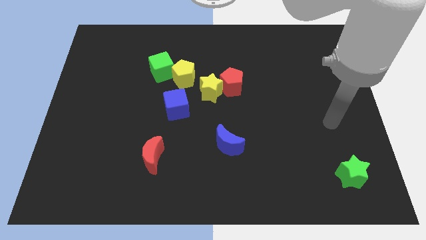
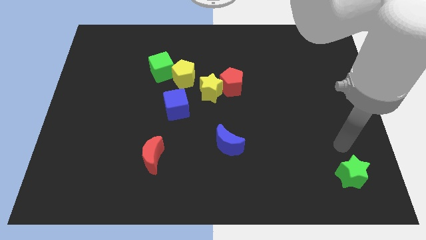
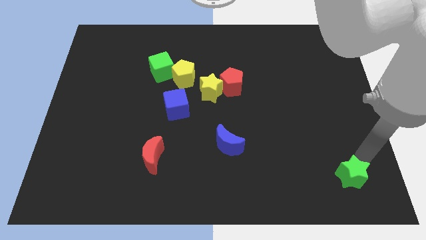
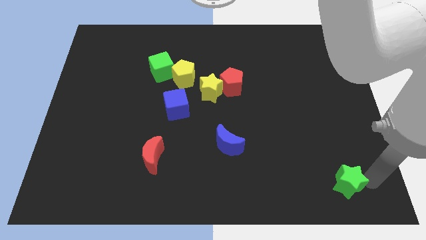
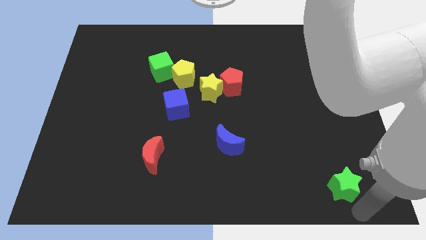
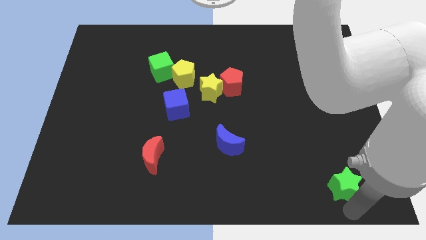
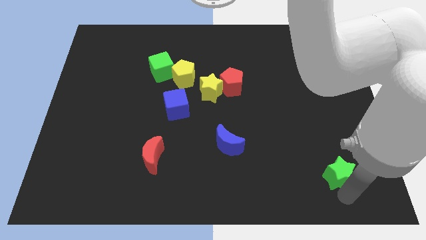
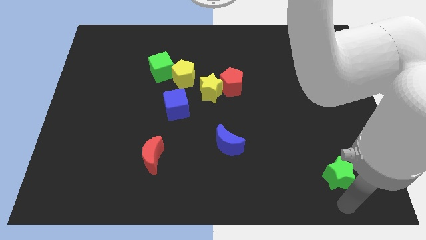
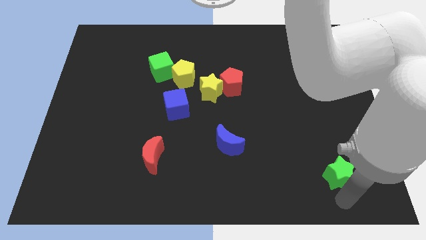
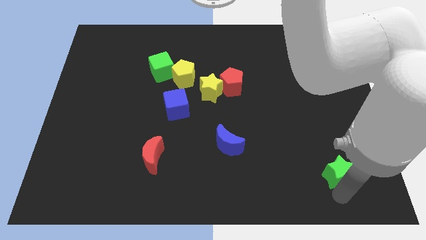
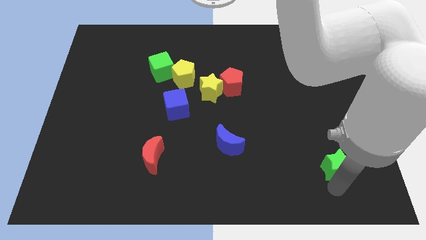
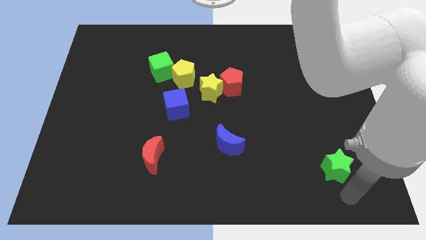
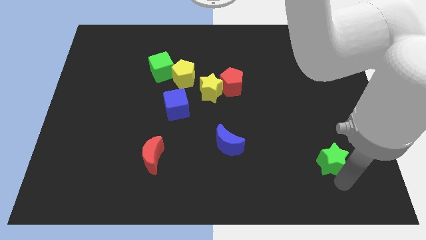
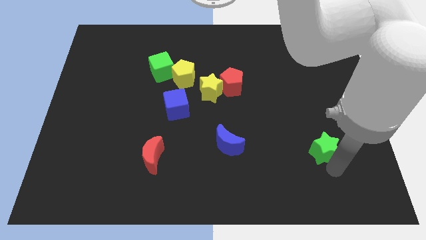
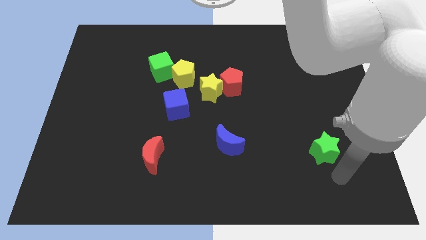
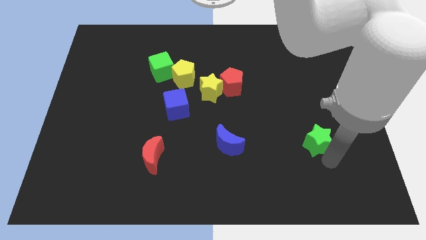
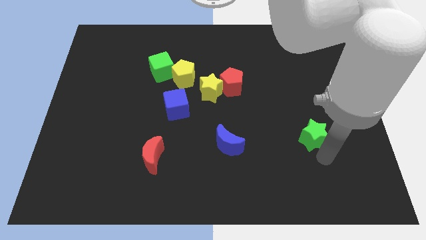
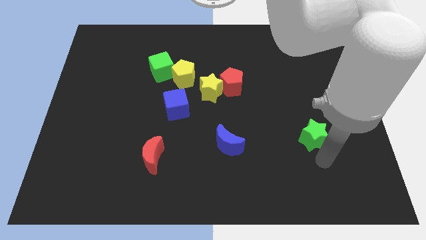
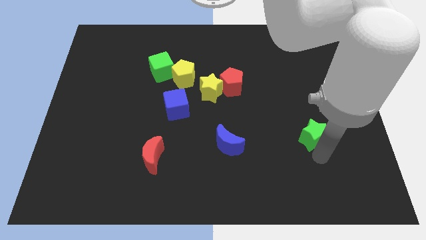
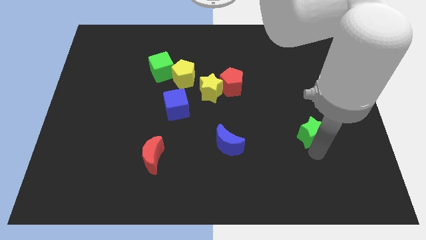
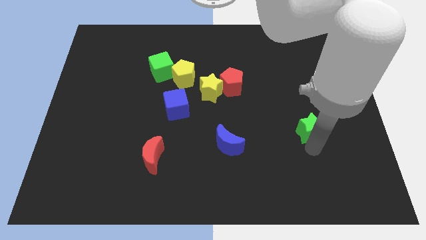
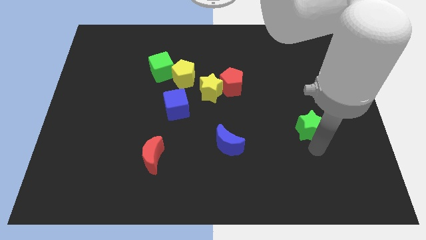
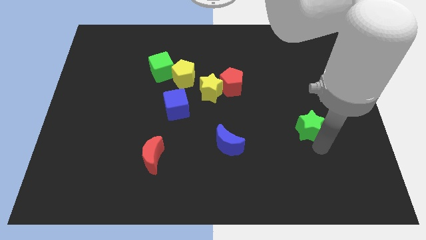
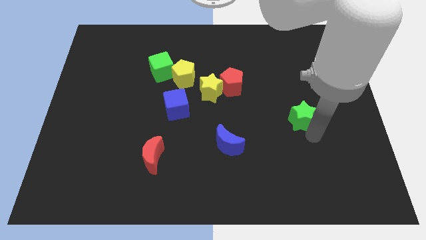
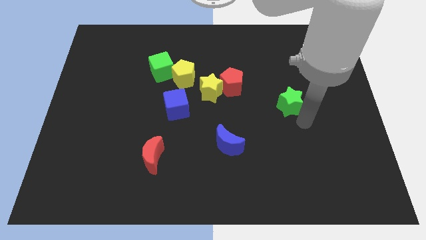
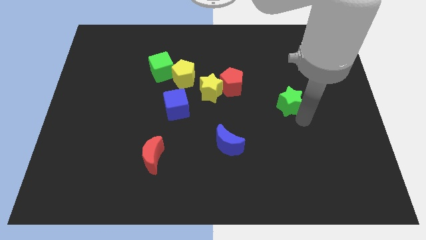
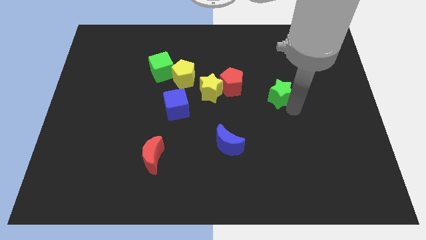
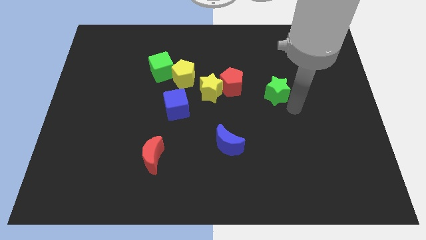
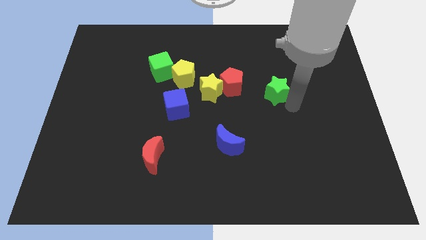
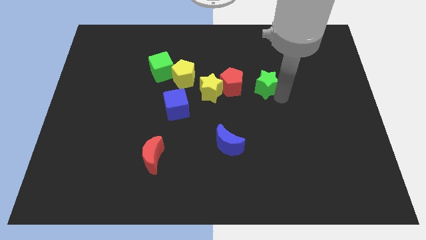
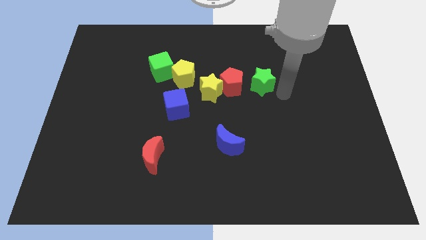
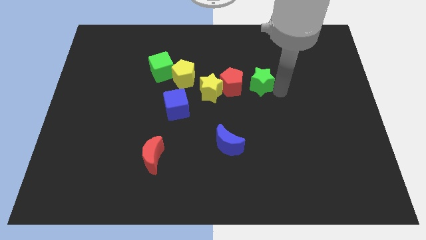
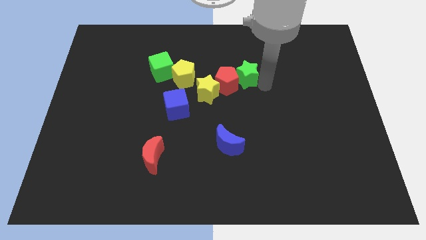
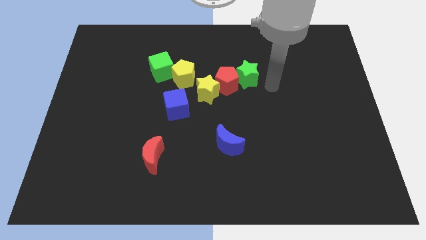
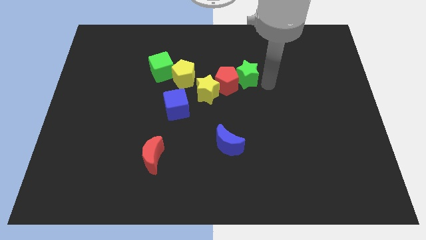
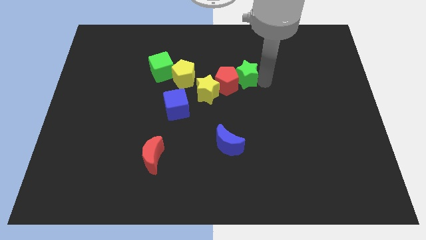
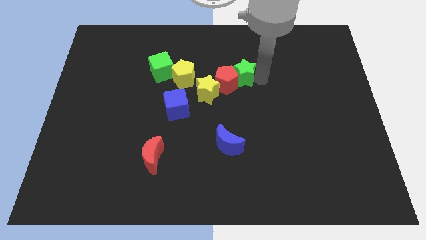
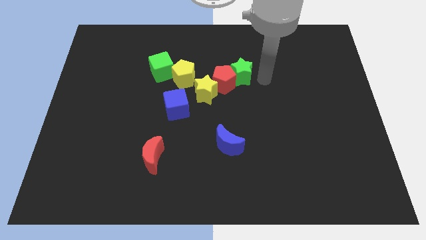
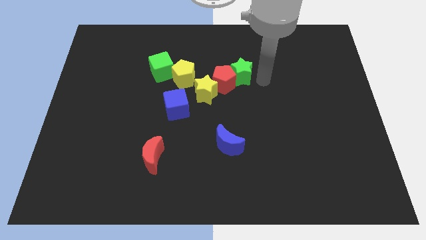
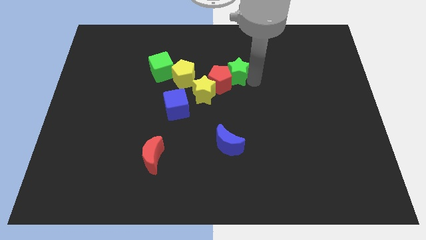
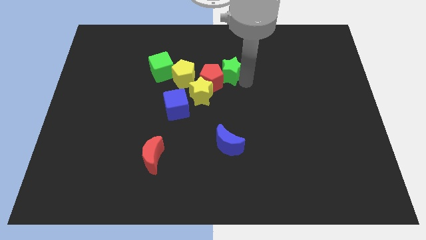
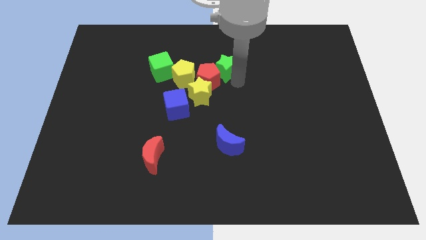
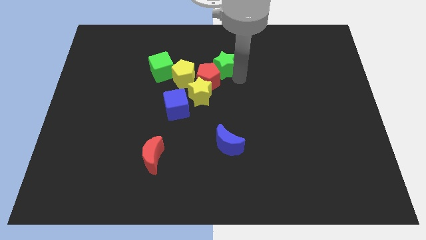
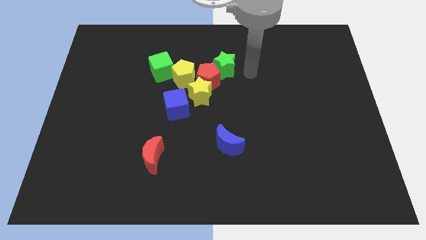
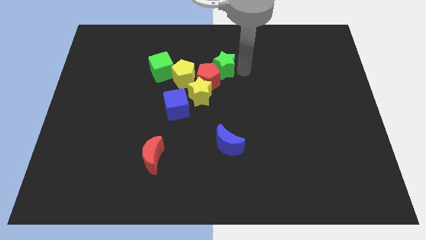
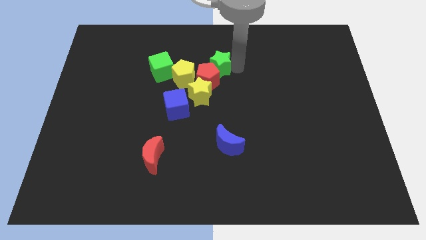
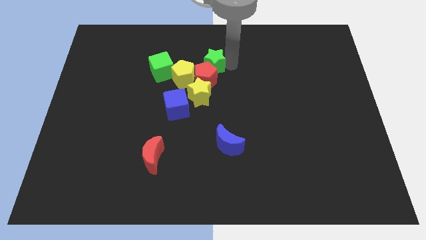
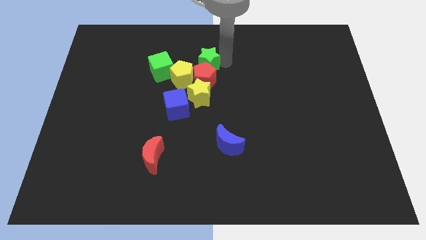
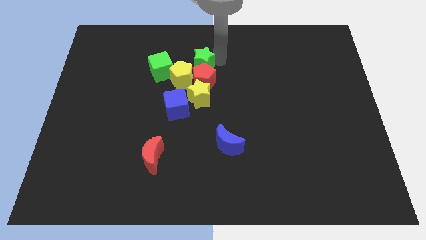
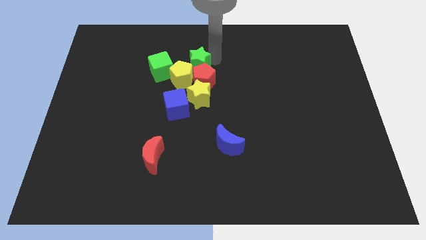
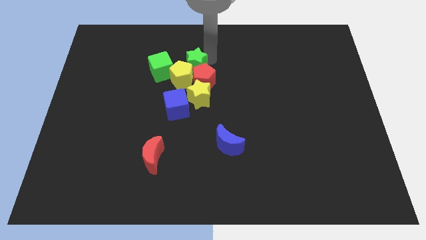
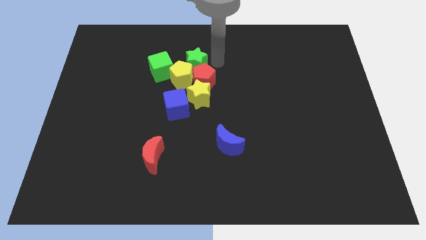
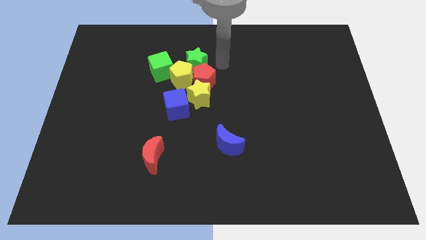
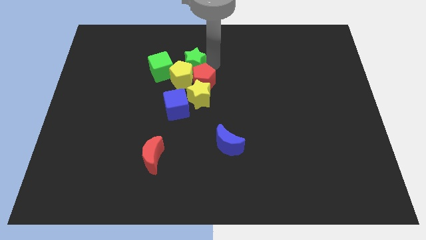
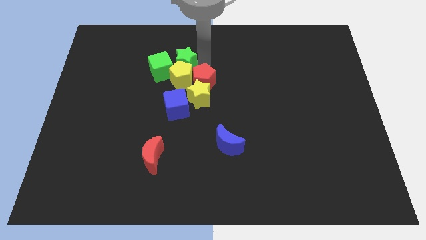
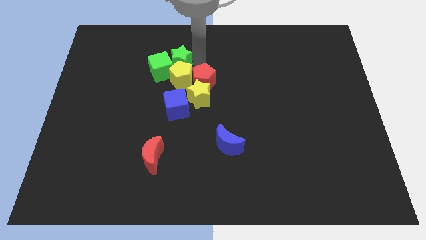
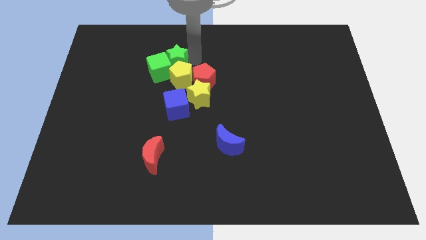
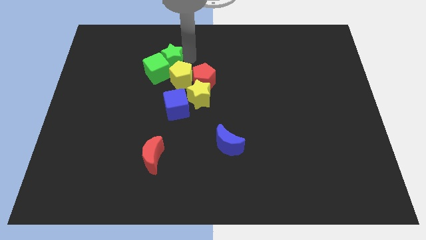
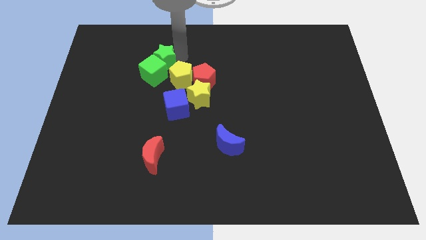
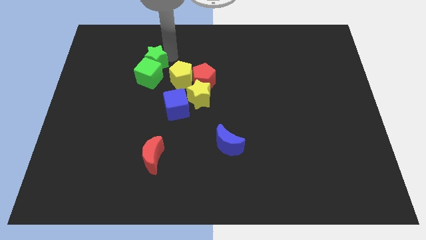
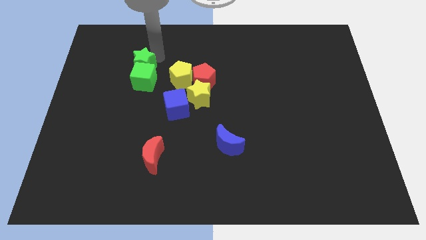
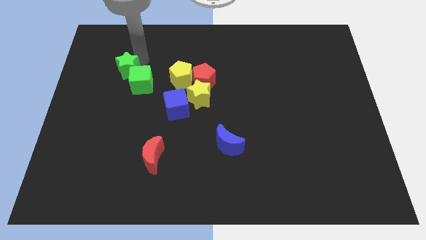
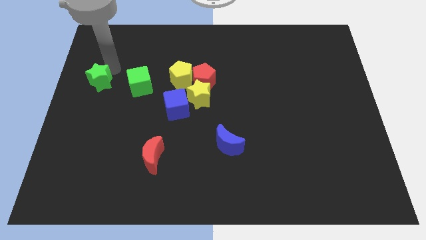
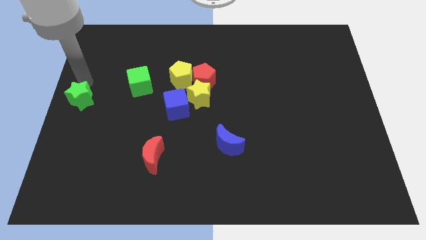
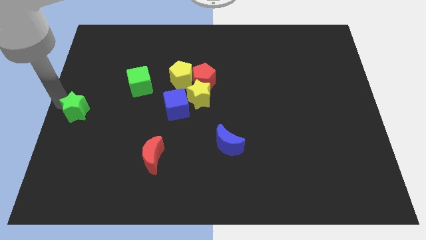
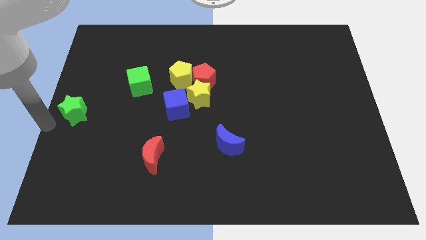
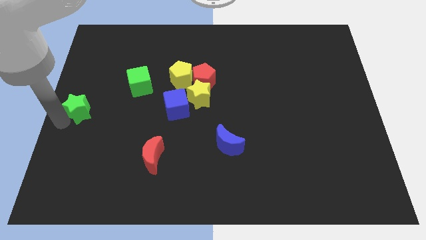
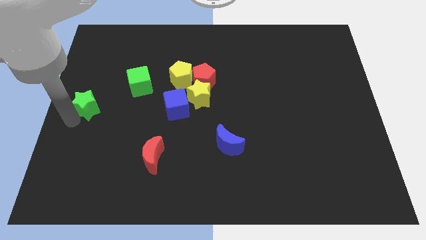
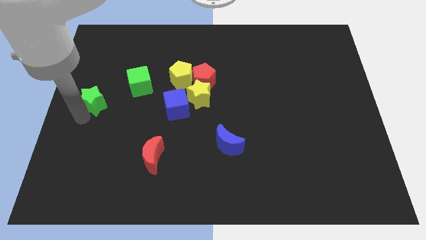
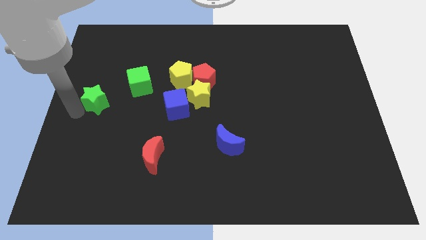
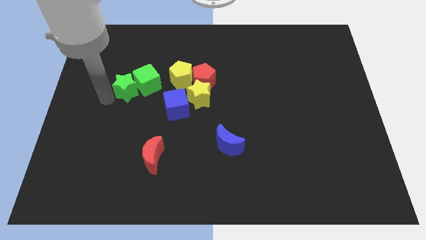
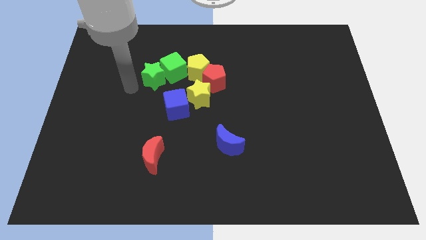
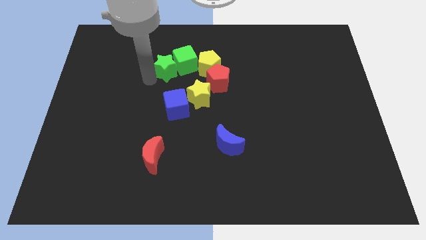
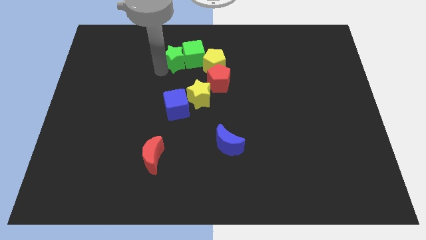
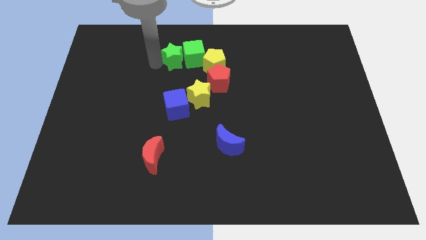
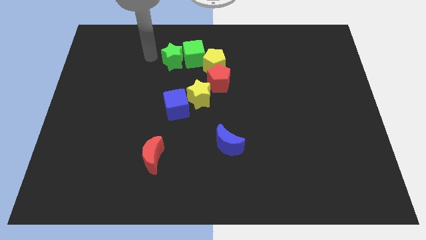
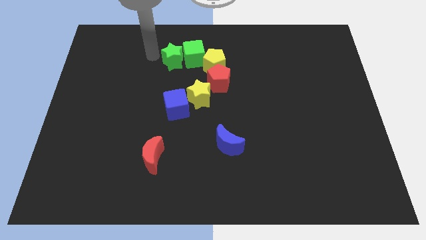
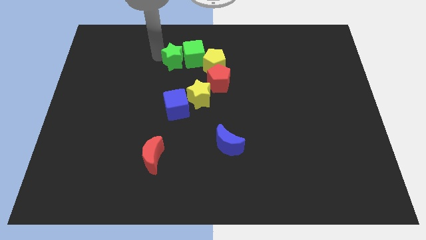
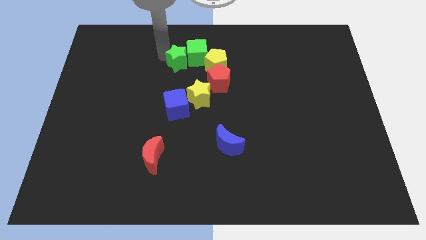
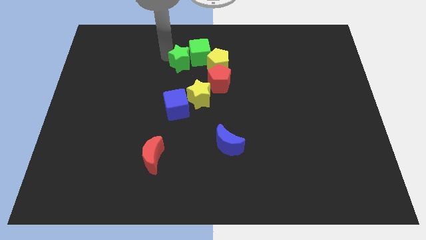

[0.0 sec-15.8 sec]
push the green star to the top left side of the red pentagon
